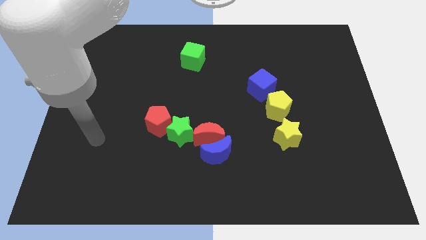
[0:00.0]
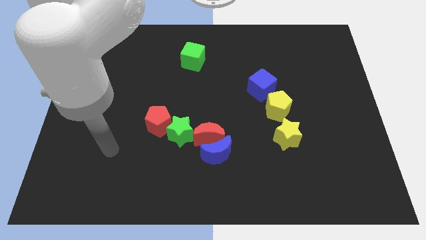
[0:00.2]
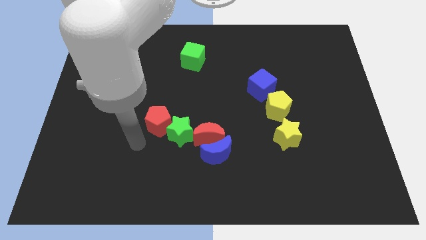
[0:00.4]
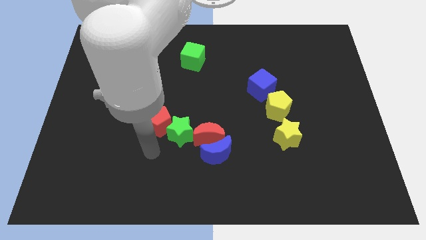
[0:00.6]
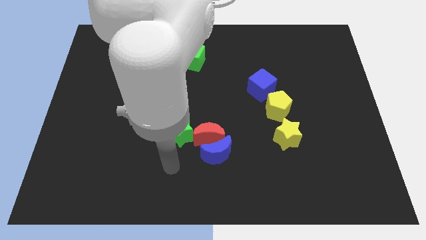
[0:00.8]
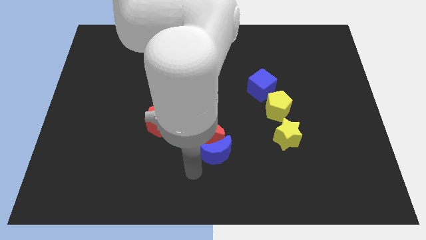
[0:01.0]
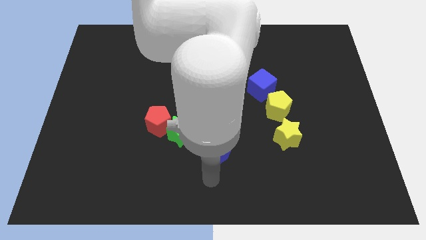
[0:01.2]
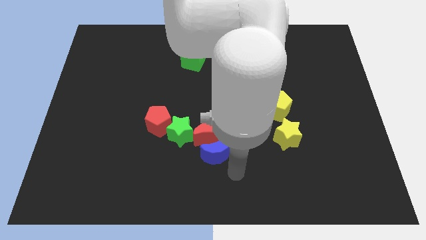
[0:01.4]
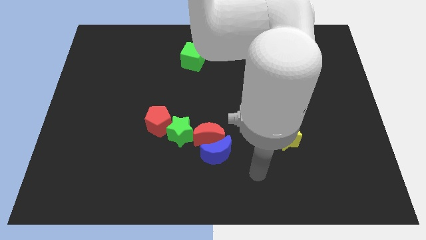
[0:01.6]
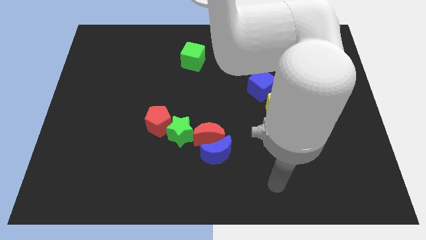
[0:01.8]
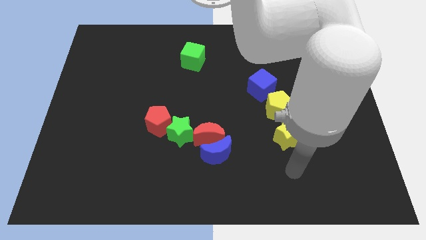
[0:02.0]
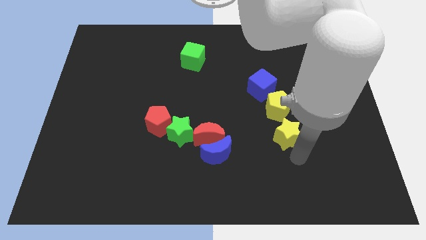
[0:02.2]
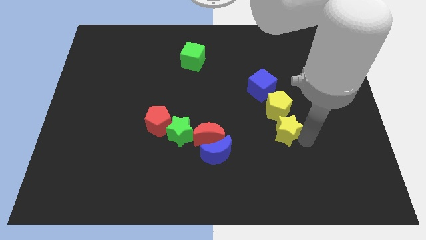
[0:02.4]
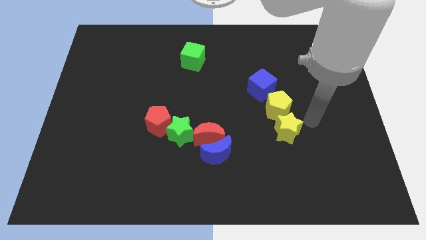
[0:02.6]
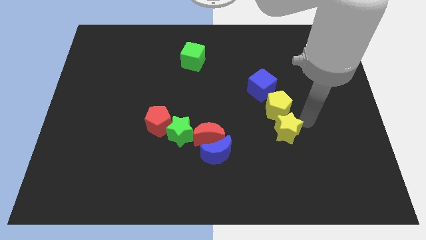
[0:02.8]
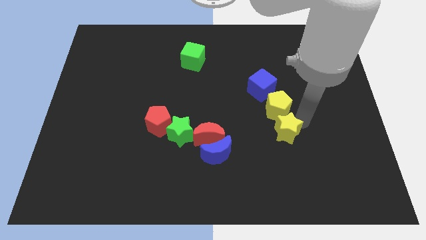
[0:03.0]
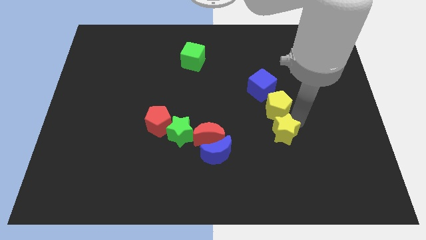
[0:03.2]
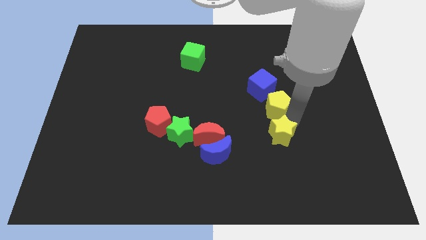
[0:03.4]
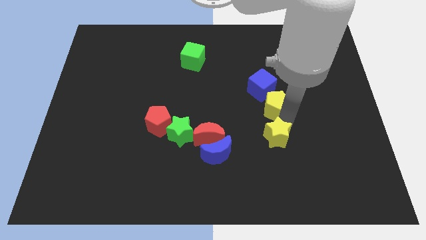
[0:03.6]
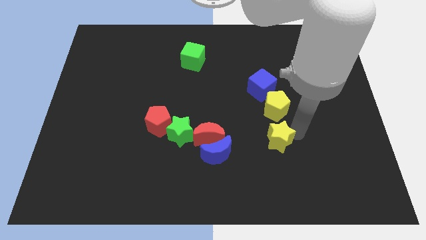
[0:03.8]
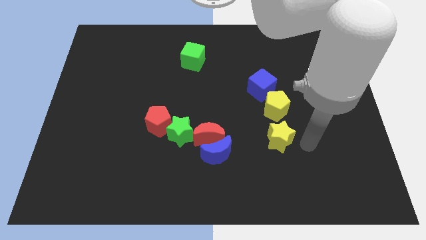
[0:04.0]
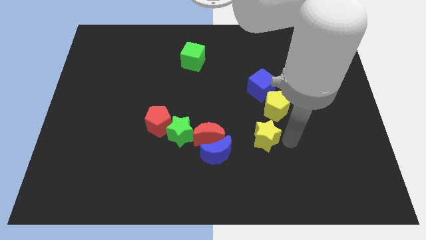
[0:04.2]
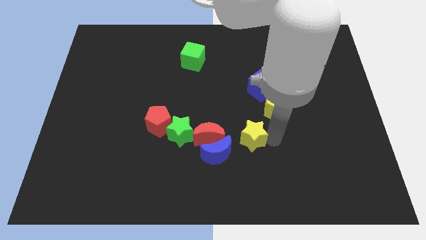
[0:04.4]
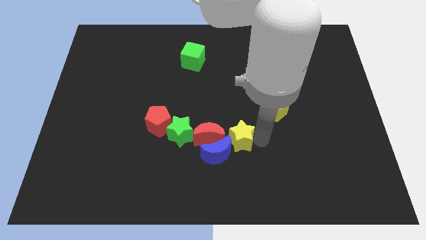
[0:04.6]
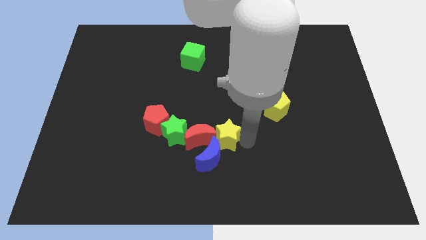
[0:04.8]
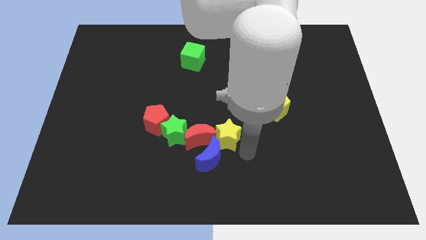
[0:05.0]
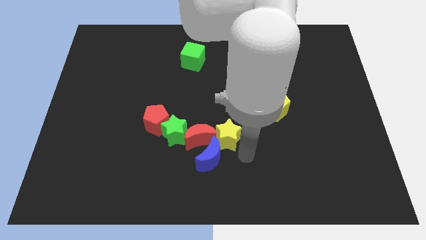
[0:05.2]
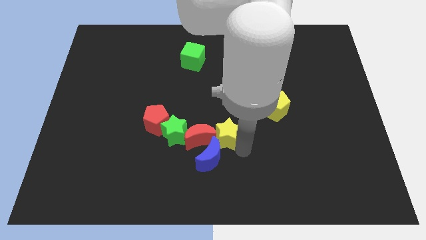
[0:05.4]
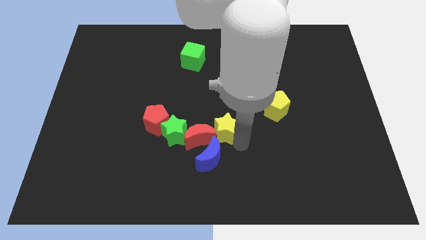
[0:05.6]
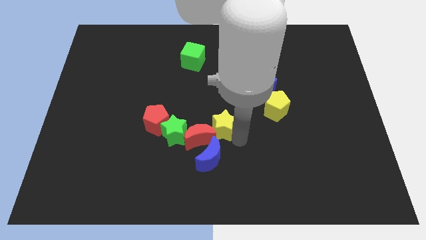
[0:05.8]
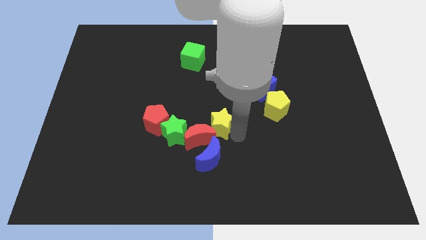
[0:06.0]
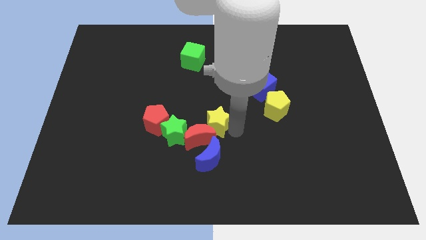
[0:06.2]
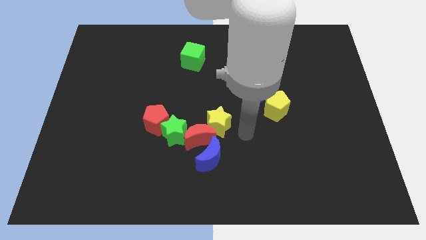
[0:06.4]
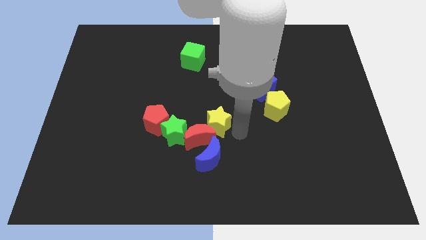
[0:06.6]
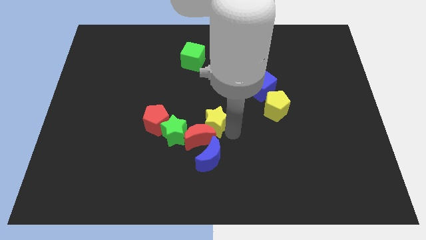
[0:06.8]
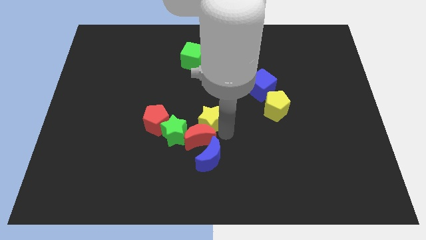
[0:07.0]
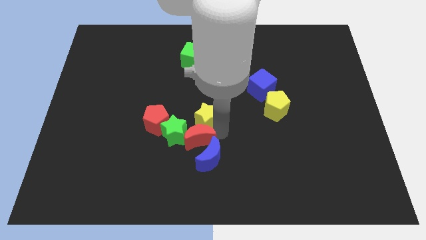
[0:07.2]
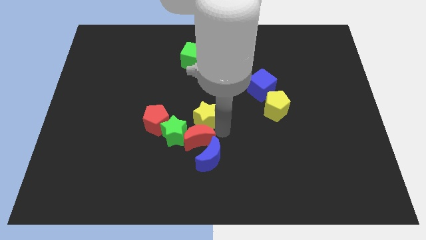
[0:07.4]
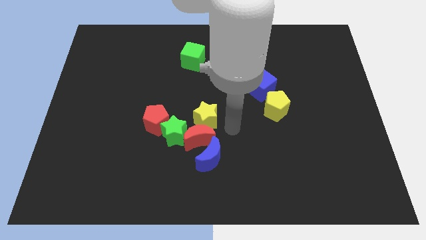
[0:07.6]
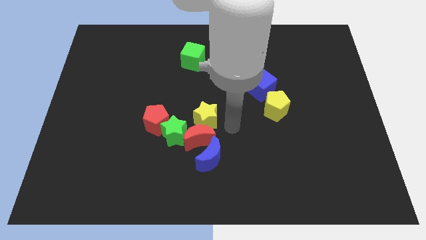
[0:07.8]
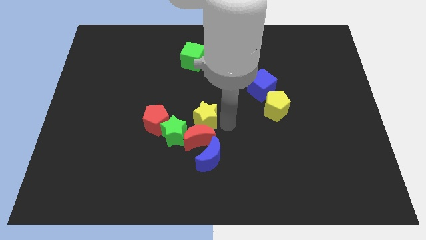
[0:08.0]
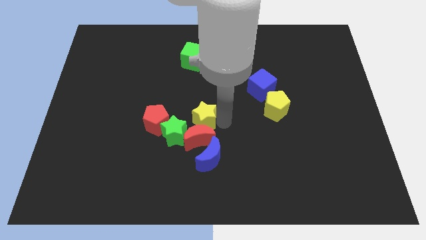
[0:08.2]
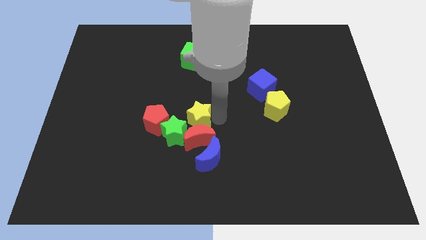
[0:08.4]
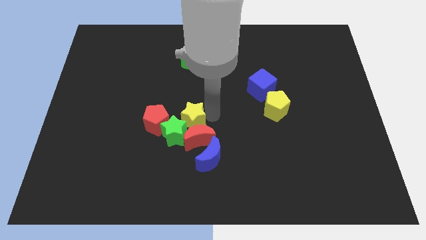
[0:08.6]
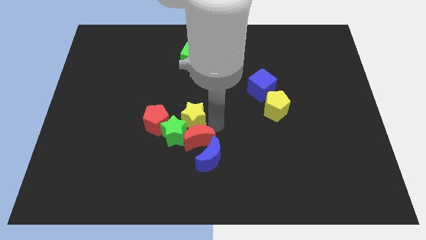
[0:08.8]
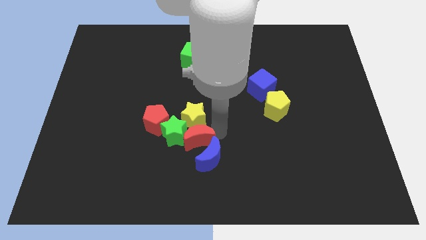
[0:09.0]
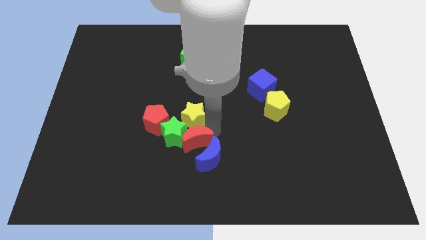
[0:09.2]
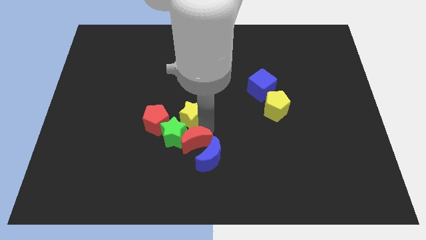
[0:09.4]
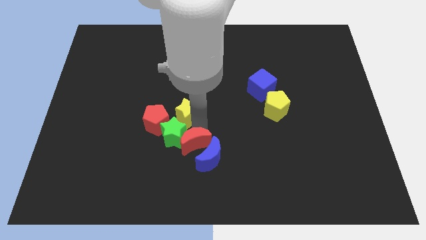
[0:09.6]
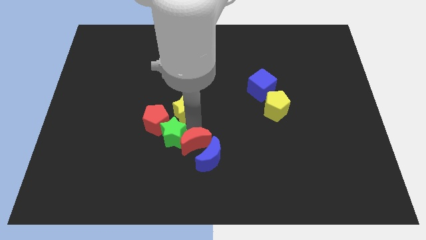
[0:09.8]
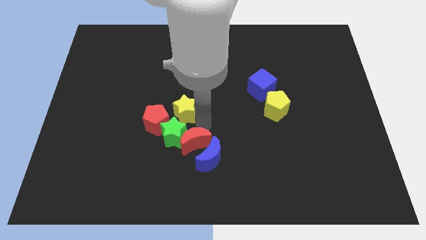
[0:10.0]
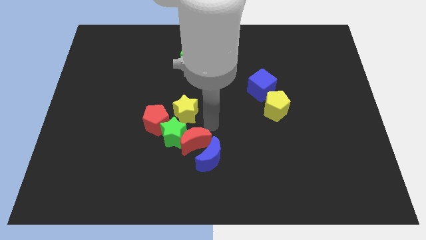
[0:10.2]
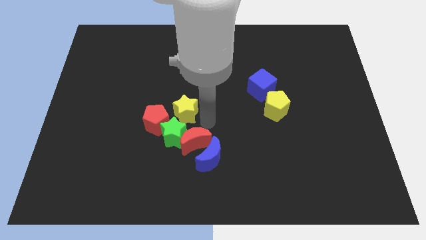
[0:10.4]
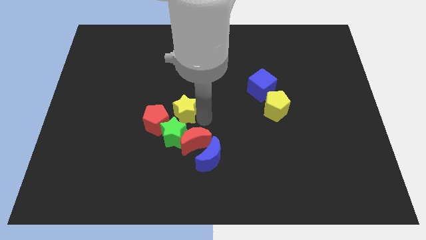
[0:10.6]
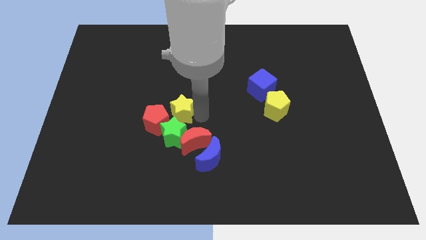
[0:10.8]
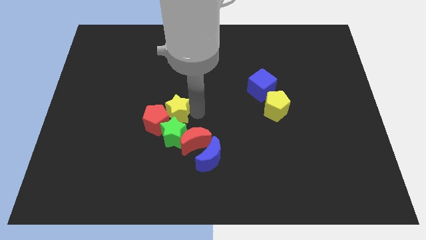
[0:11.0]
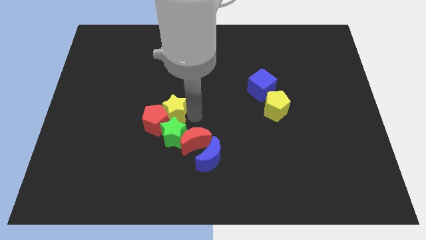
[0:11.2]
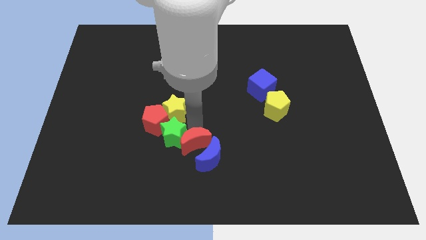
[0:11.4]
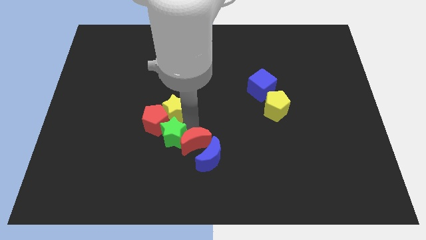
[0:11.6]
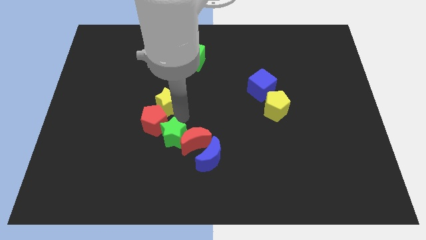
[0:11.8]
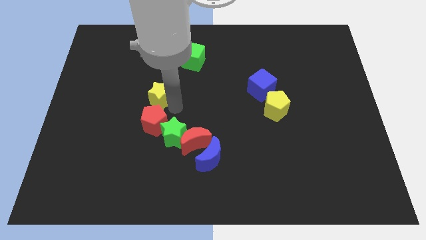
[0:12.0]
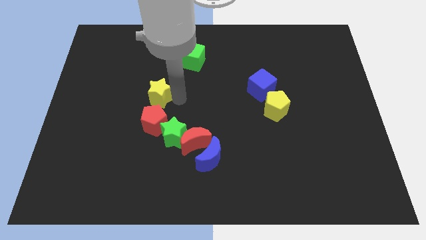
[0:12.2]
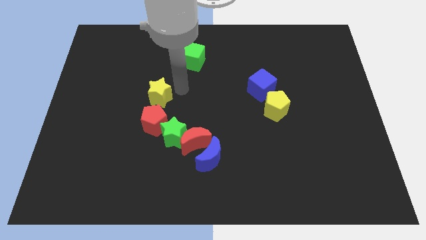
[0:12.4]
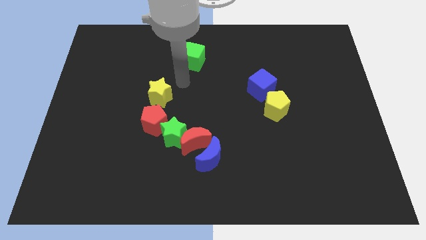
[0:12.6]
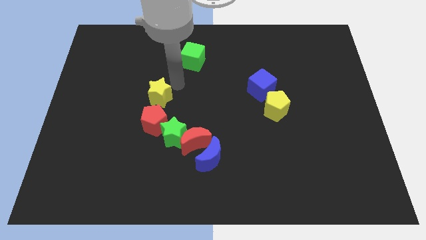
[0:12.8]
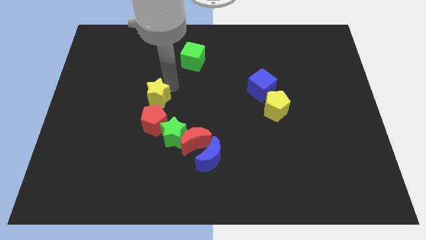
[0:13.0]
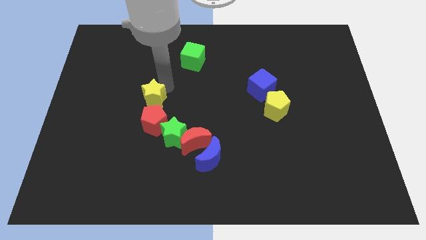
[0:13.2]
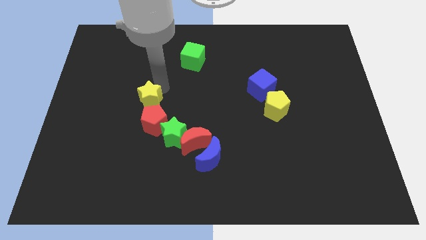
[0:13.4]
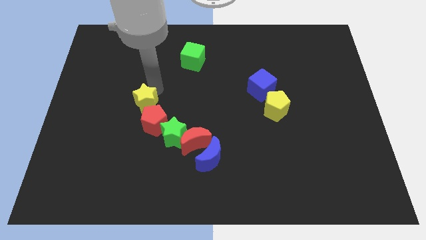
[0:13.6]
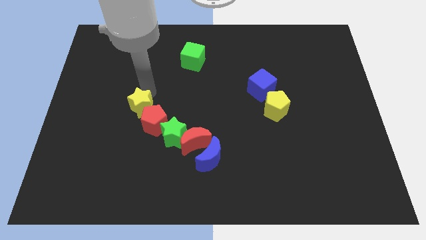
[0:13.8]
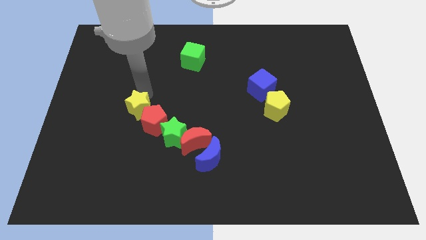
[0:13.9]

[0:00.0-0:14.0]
move the yellow star left of the red pentagon
